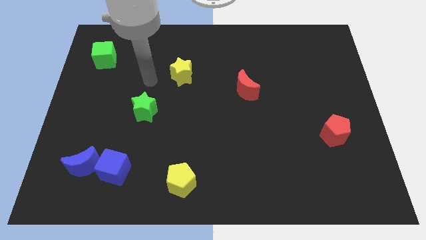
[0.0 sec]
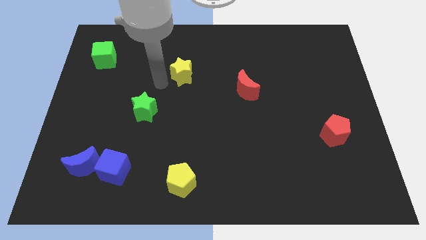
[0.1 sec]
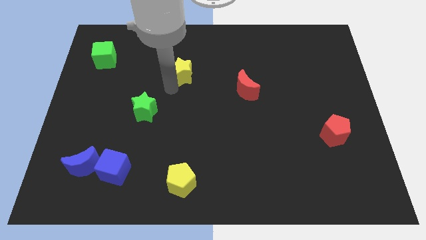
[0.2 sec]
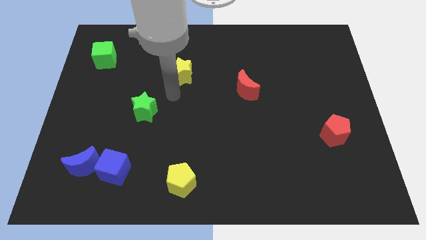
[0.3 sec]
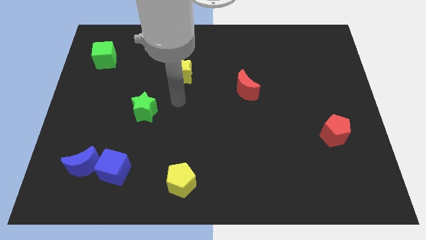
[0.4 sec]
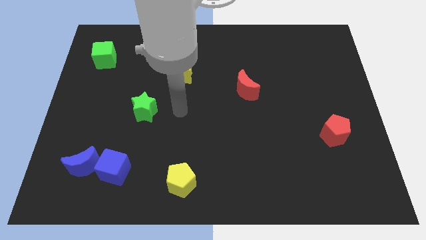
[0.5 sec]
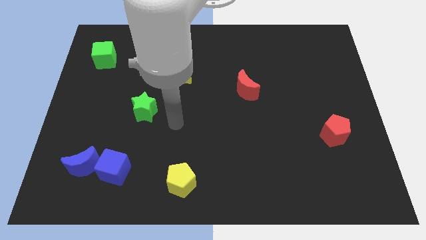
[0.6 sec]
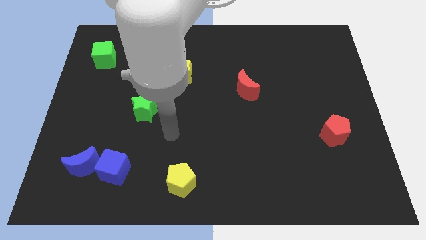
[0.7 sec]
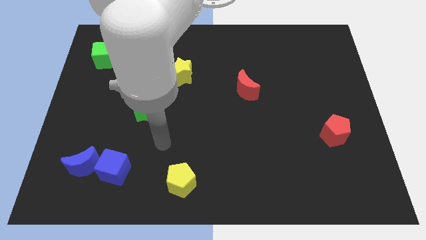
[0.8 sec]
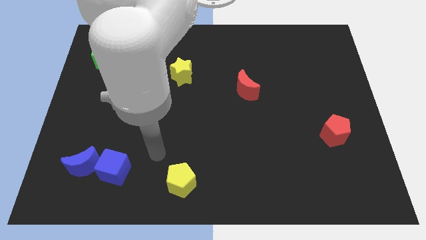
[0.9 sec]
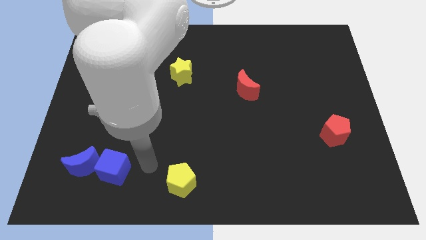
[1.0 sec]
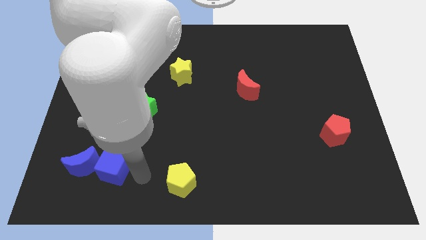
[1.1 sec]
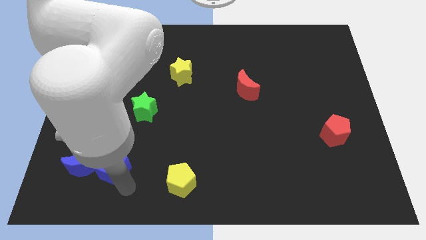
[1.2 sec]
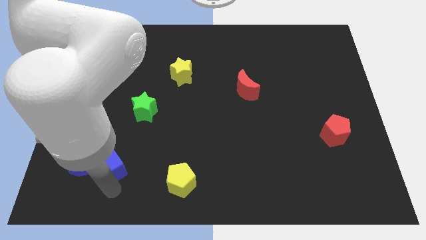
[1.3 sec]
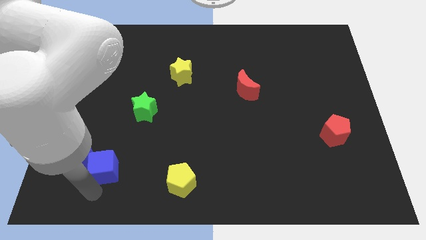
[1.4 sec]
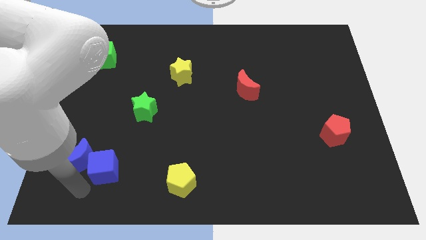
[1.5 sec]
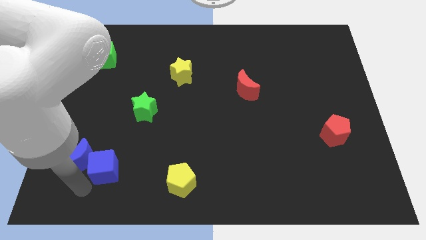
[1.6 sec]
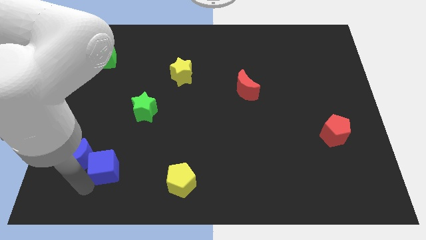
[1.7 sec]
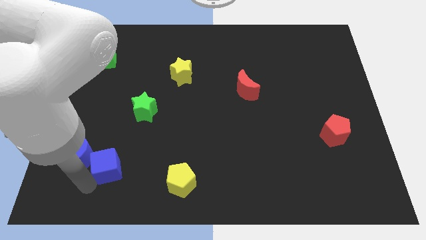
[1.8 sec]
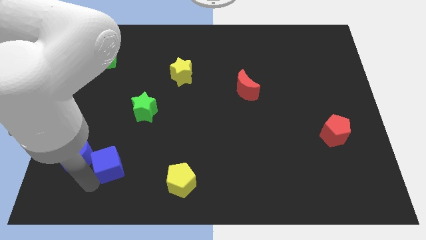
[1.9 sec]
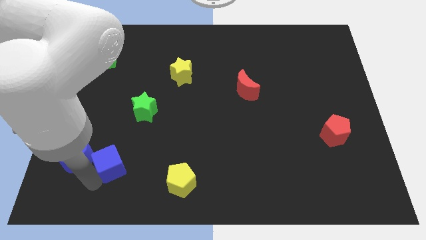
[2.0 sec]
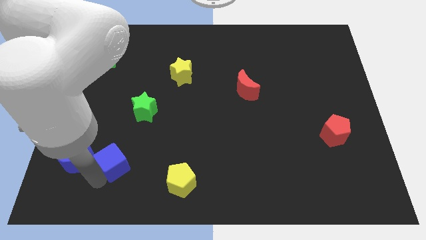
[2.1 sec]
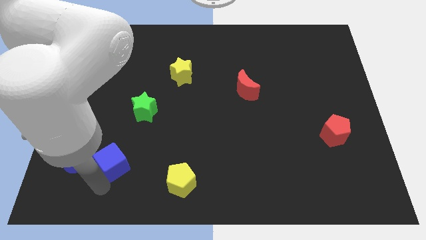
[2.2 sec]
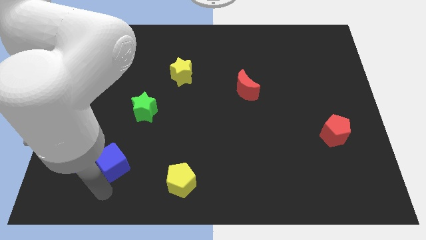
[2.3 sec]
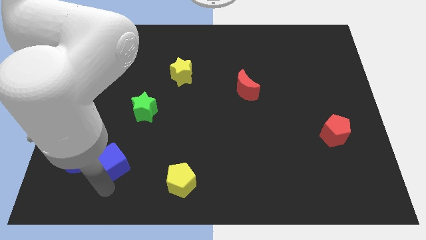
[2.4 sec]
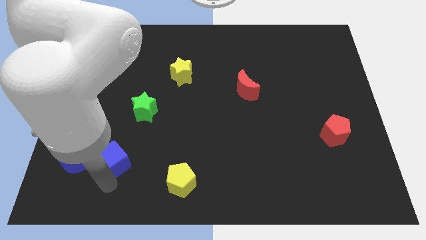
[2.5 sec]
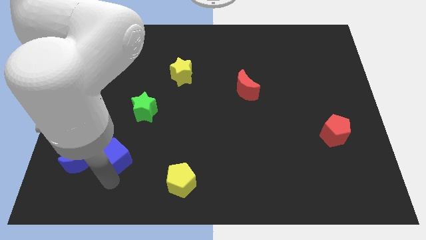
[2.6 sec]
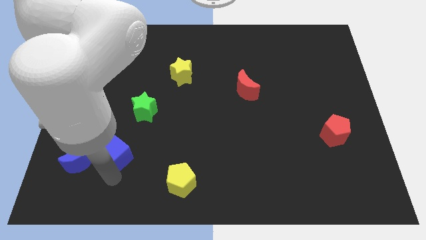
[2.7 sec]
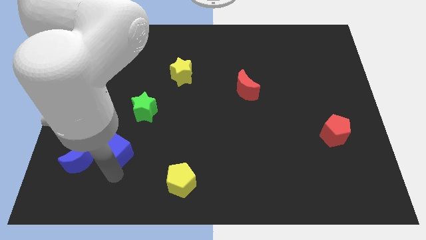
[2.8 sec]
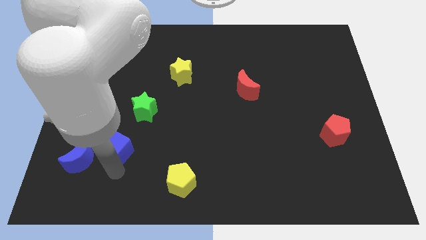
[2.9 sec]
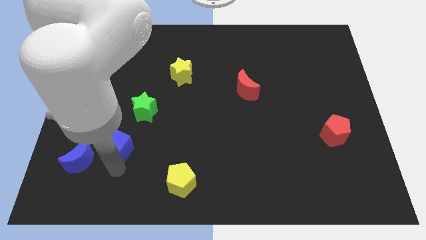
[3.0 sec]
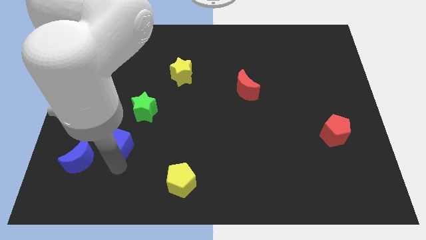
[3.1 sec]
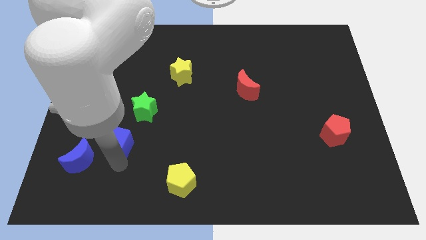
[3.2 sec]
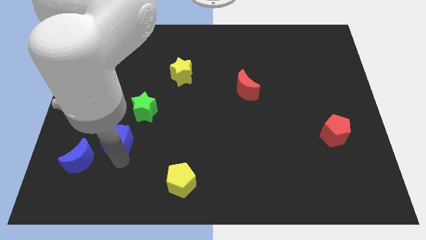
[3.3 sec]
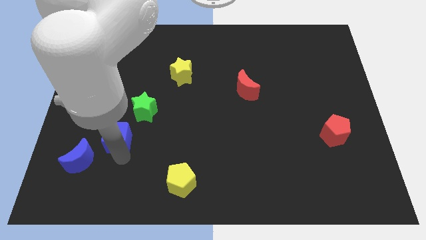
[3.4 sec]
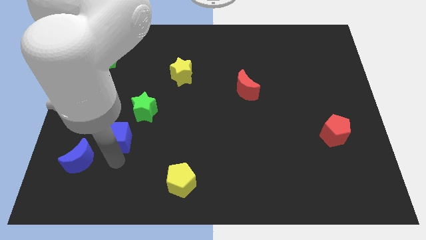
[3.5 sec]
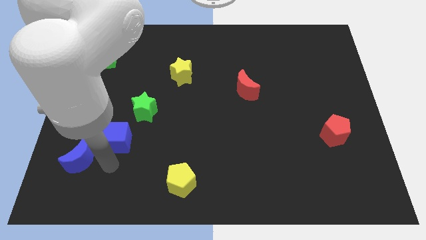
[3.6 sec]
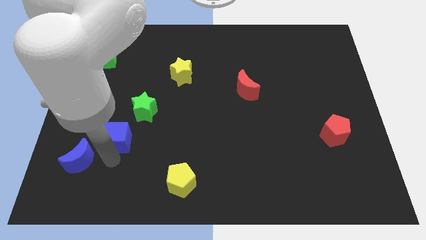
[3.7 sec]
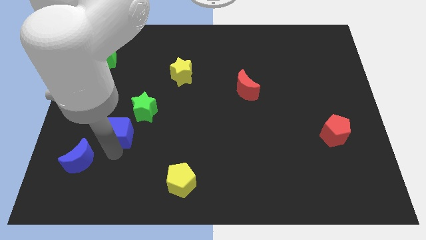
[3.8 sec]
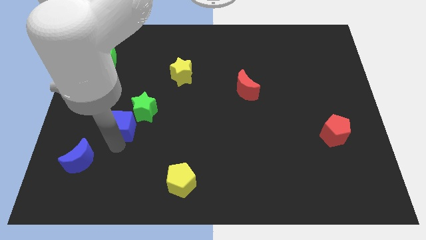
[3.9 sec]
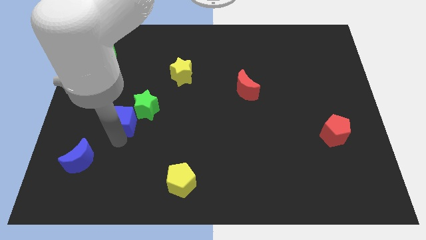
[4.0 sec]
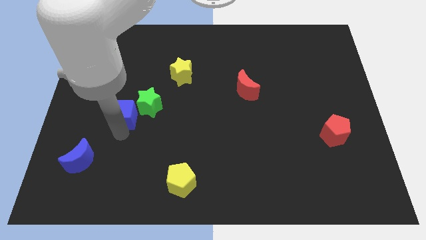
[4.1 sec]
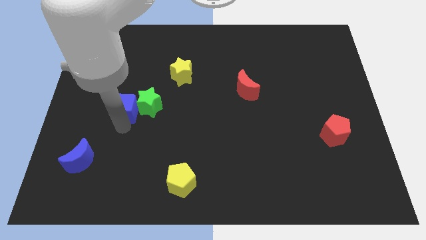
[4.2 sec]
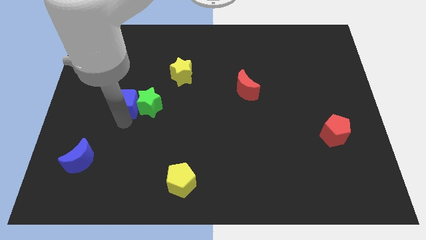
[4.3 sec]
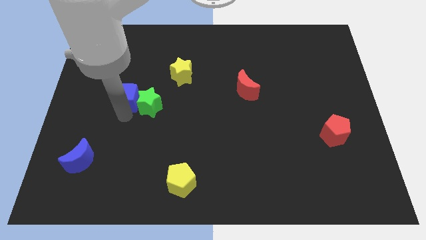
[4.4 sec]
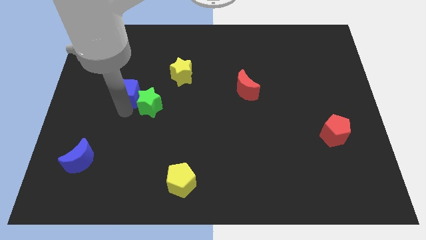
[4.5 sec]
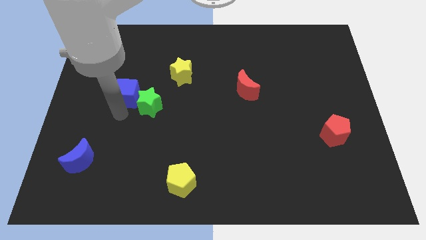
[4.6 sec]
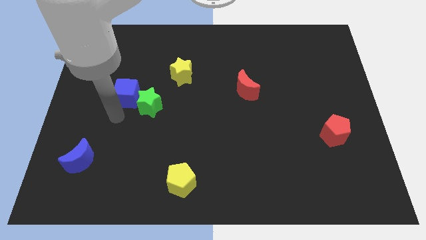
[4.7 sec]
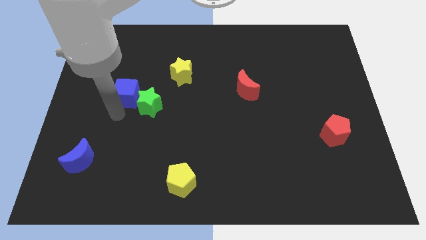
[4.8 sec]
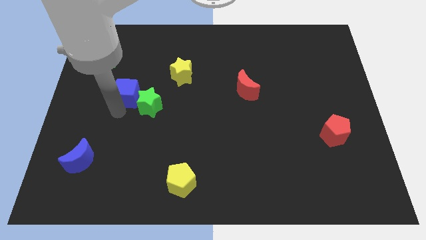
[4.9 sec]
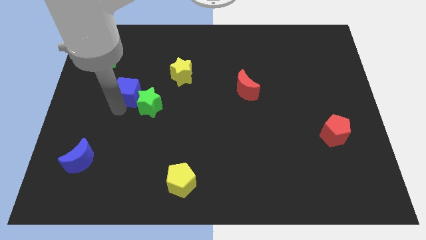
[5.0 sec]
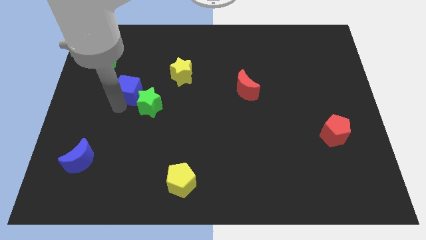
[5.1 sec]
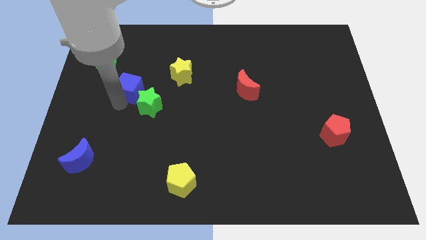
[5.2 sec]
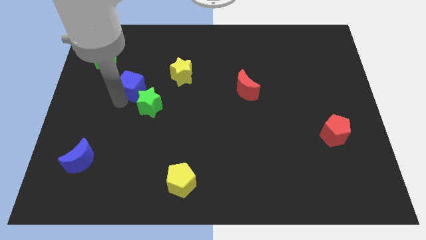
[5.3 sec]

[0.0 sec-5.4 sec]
put the blue cube left of the yellow star

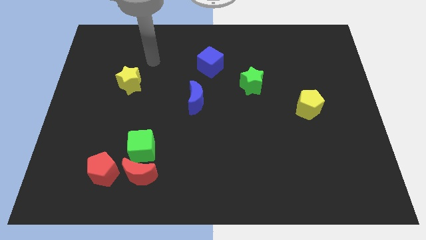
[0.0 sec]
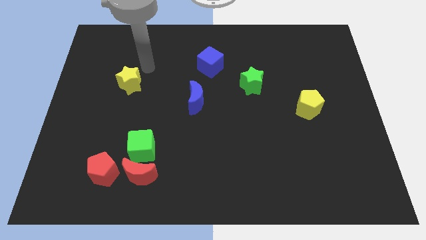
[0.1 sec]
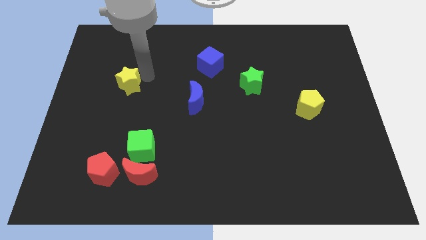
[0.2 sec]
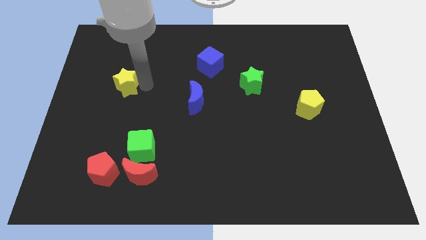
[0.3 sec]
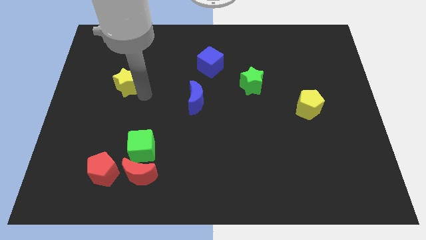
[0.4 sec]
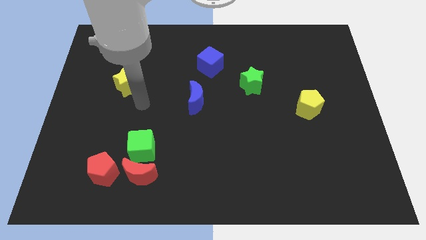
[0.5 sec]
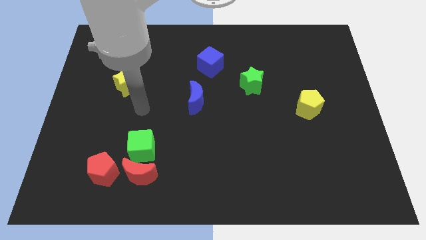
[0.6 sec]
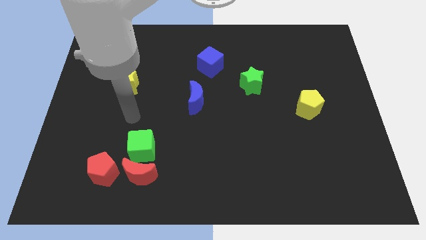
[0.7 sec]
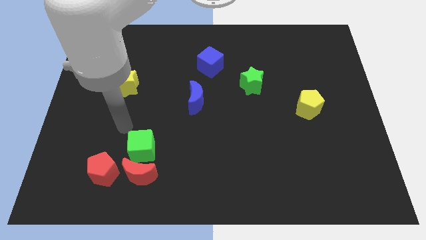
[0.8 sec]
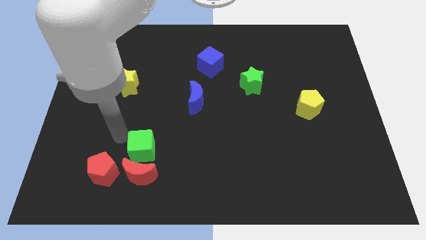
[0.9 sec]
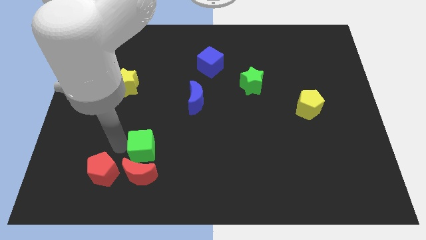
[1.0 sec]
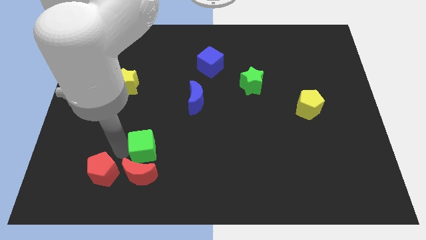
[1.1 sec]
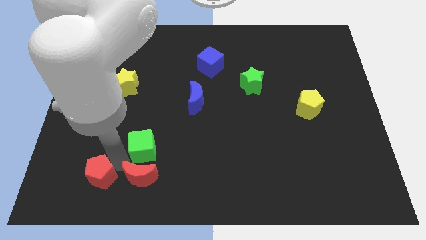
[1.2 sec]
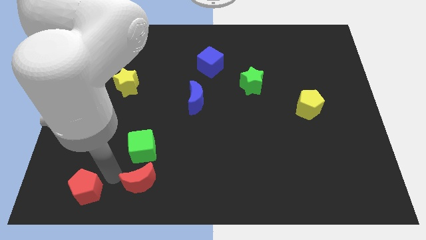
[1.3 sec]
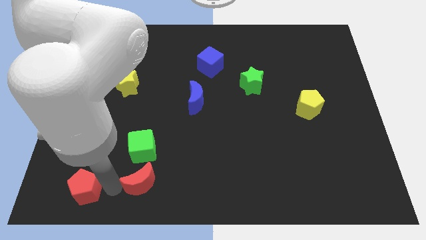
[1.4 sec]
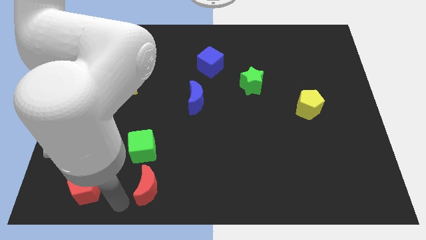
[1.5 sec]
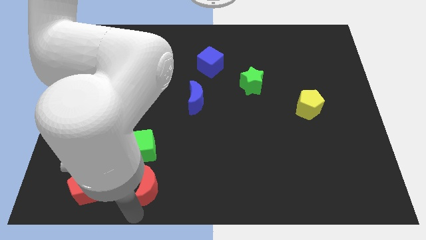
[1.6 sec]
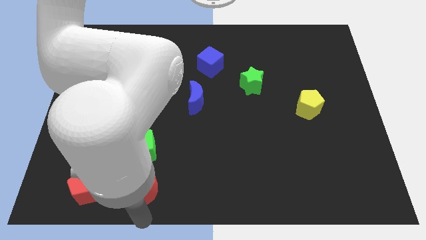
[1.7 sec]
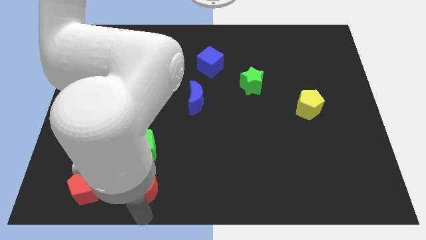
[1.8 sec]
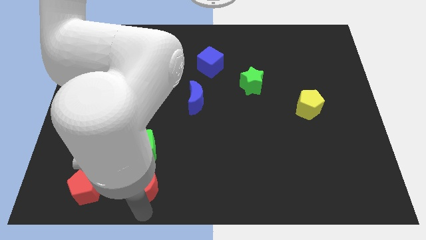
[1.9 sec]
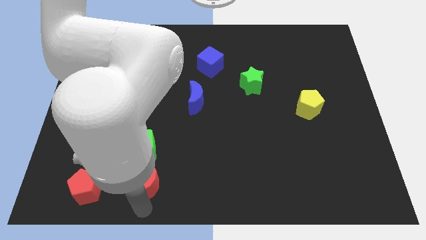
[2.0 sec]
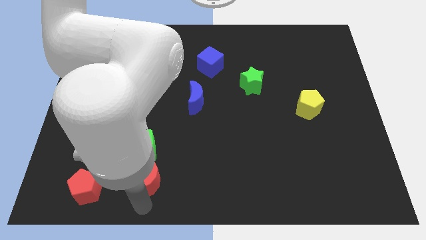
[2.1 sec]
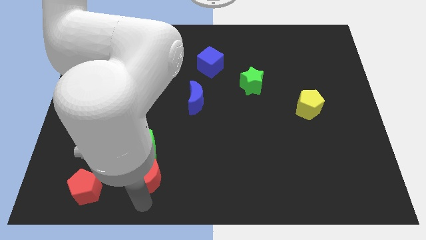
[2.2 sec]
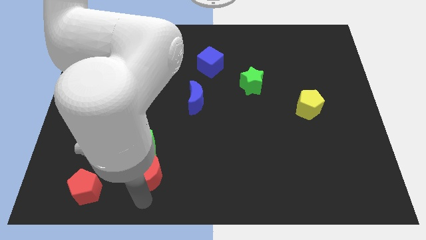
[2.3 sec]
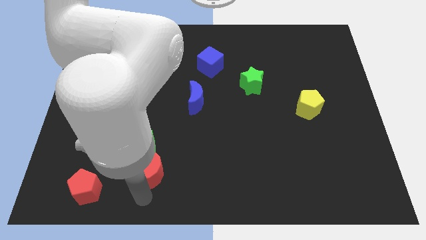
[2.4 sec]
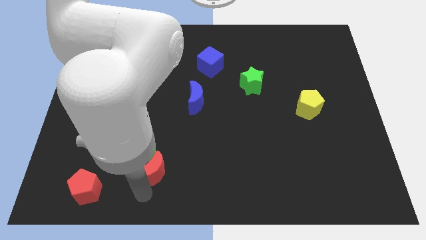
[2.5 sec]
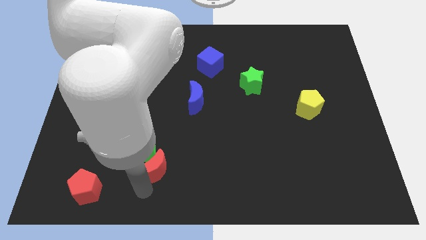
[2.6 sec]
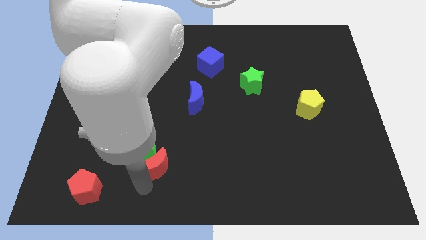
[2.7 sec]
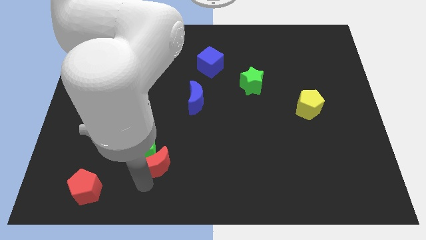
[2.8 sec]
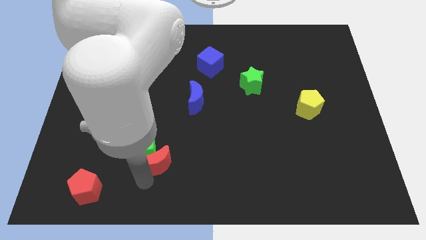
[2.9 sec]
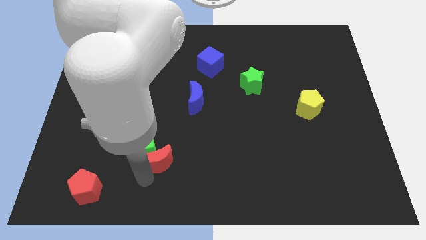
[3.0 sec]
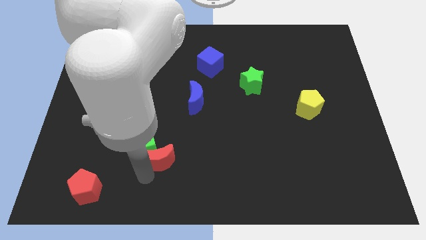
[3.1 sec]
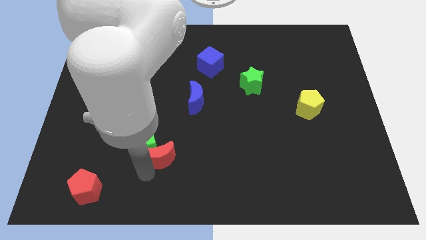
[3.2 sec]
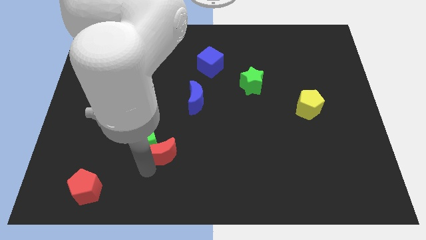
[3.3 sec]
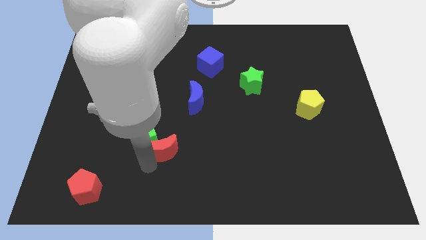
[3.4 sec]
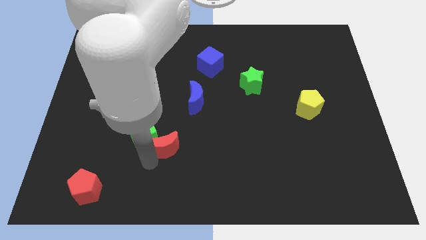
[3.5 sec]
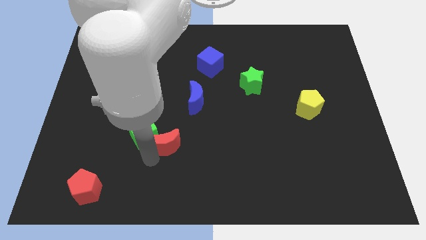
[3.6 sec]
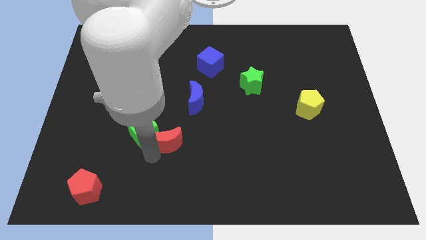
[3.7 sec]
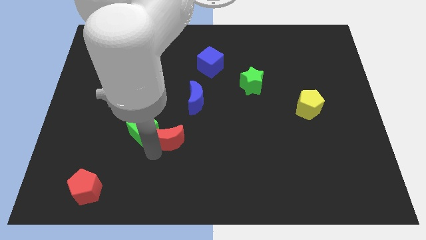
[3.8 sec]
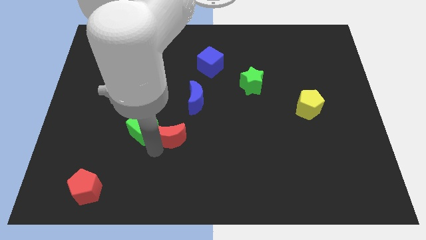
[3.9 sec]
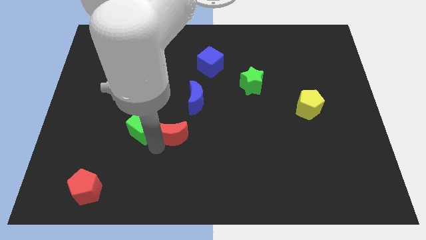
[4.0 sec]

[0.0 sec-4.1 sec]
move the red moon to the bottom side of the blue moon
